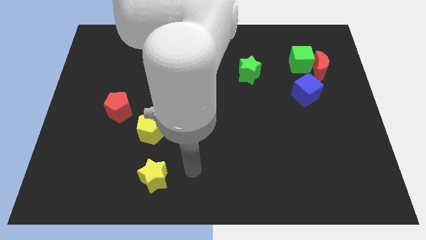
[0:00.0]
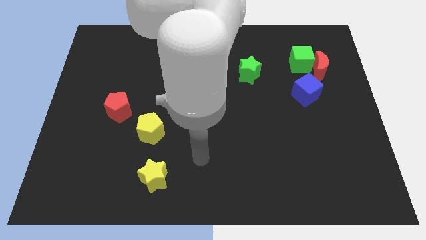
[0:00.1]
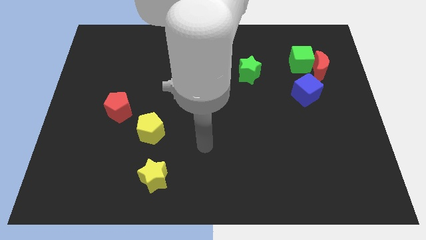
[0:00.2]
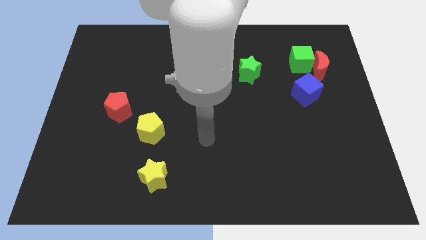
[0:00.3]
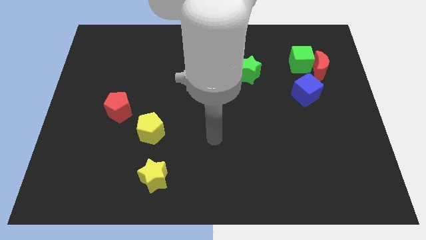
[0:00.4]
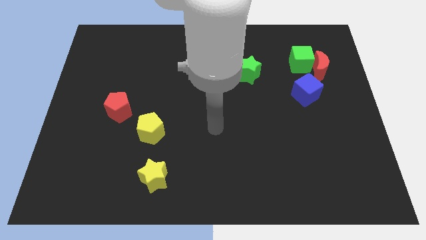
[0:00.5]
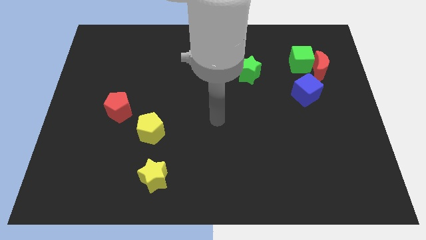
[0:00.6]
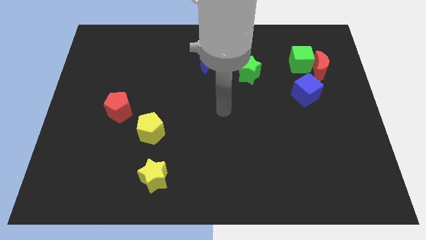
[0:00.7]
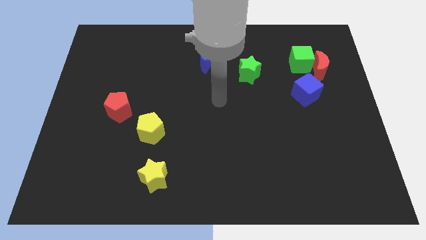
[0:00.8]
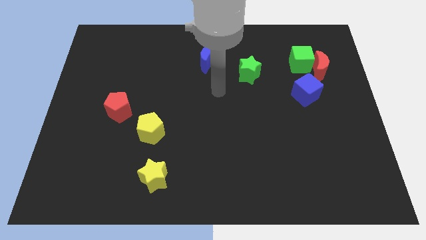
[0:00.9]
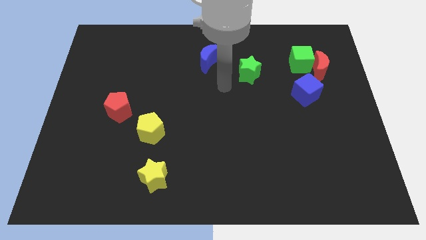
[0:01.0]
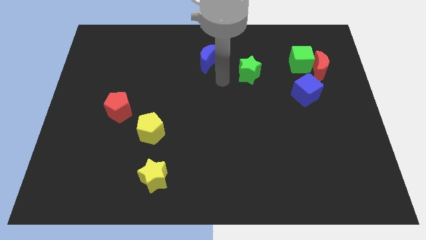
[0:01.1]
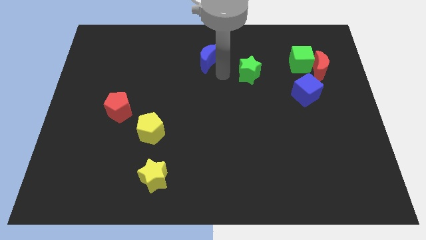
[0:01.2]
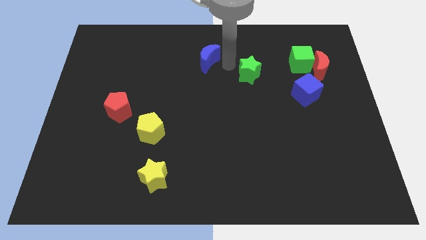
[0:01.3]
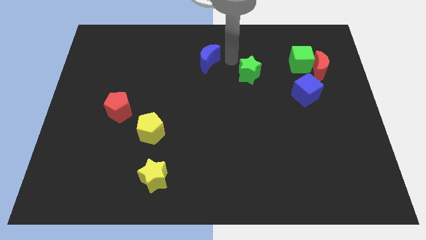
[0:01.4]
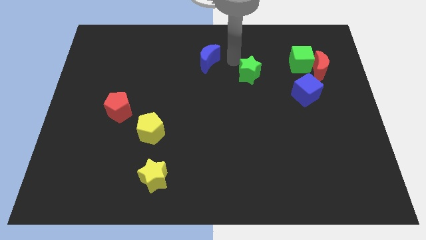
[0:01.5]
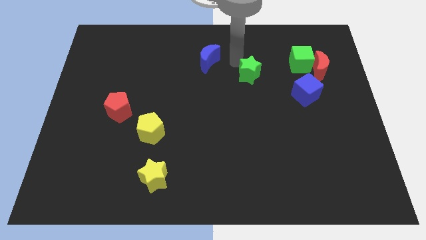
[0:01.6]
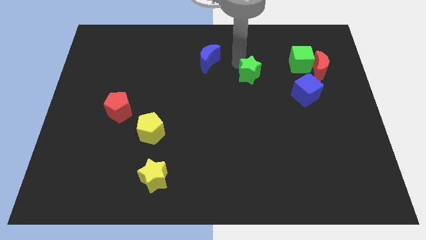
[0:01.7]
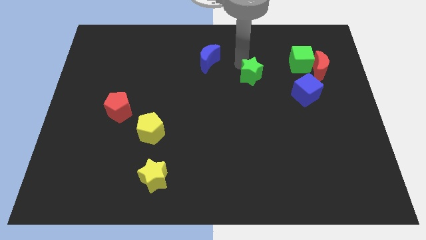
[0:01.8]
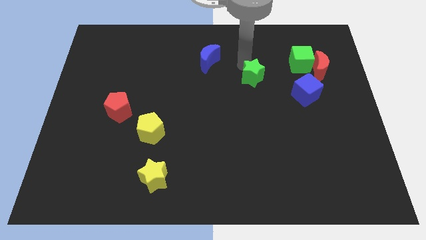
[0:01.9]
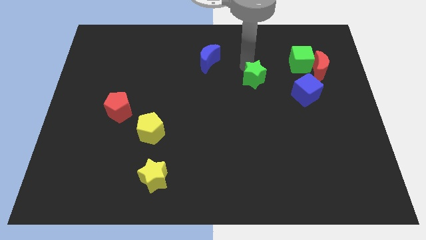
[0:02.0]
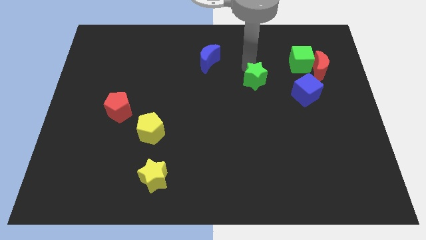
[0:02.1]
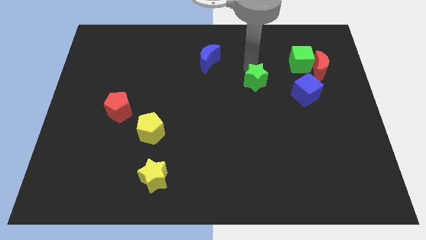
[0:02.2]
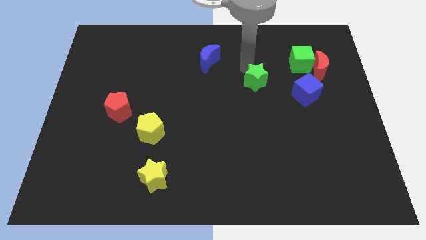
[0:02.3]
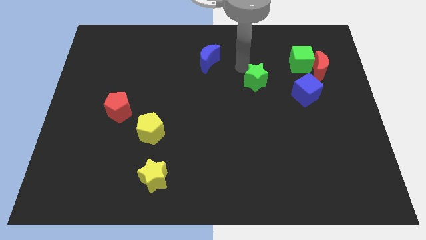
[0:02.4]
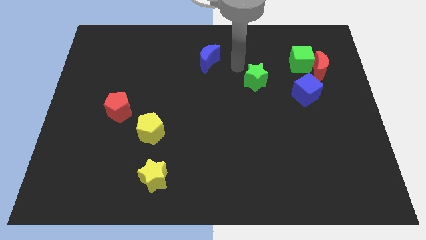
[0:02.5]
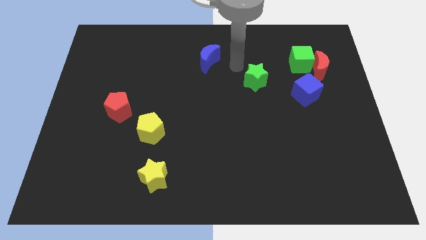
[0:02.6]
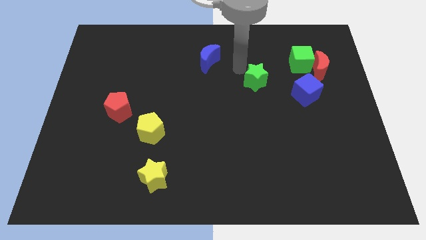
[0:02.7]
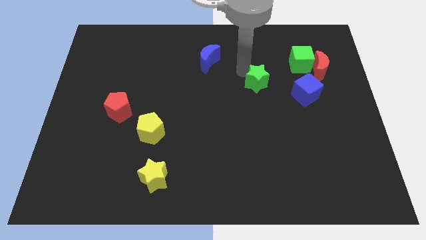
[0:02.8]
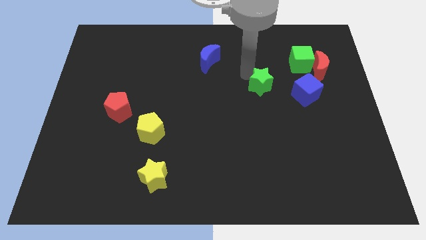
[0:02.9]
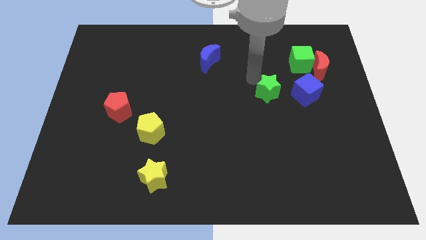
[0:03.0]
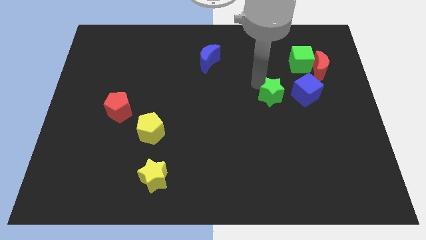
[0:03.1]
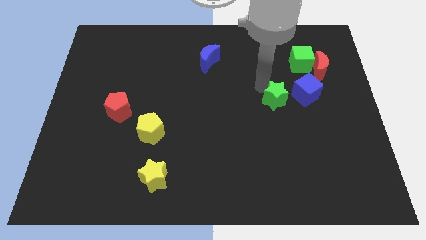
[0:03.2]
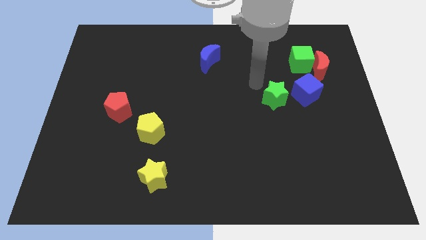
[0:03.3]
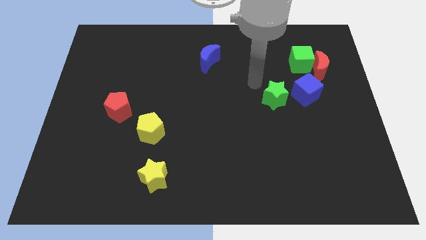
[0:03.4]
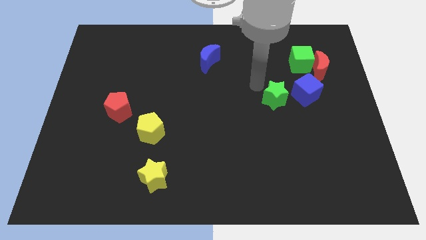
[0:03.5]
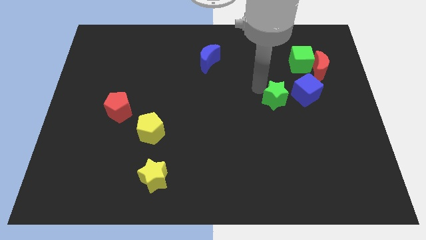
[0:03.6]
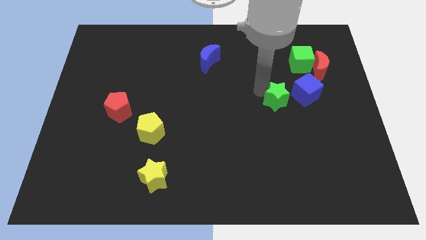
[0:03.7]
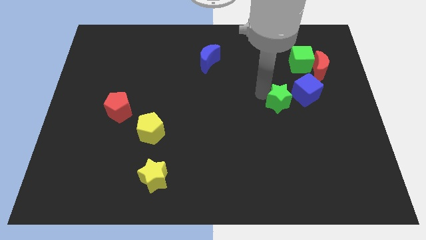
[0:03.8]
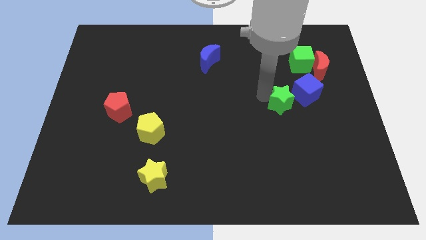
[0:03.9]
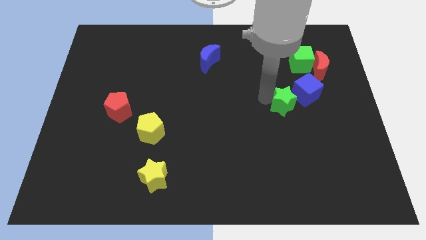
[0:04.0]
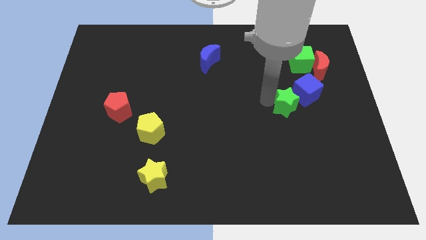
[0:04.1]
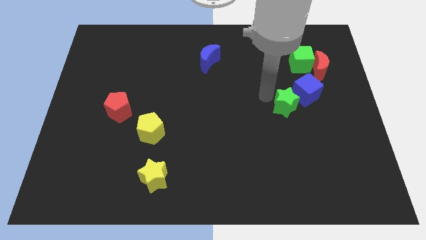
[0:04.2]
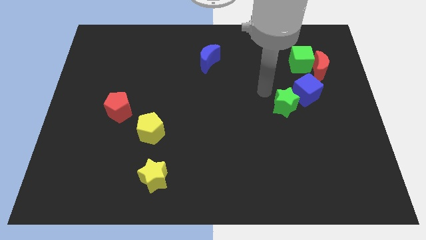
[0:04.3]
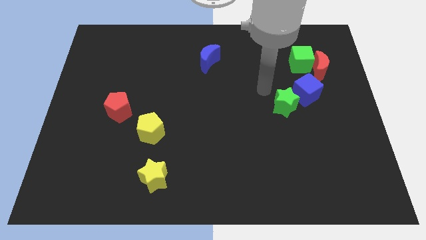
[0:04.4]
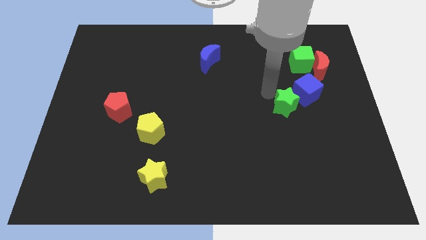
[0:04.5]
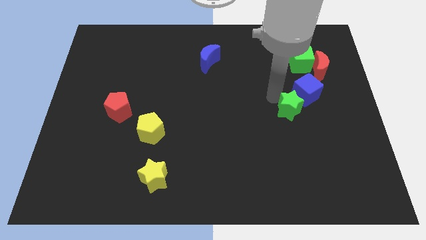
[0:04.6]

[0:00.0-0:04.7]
slide the green star below the blue cube

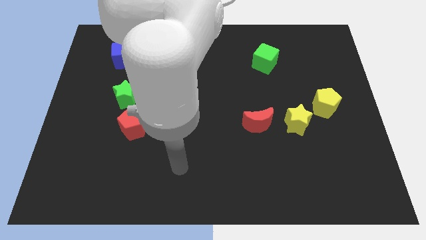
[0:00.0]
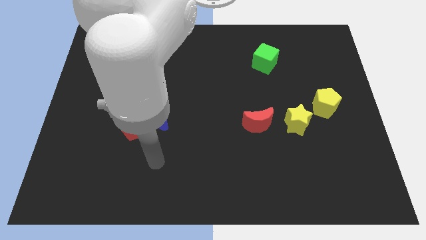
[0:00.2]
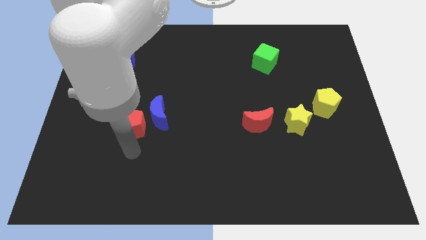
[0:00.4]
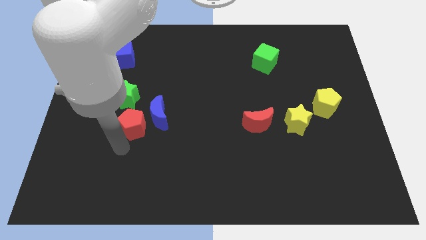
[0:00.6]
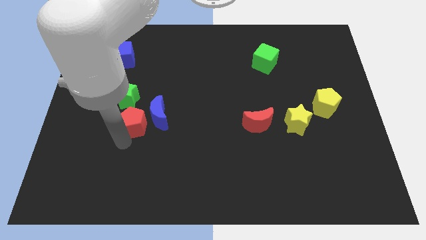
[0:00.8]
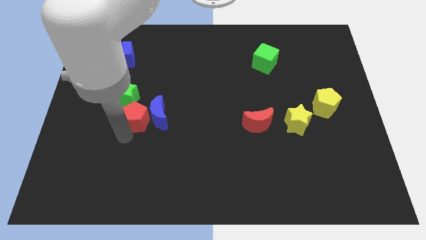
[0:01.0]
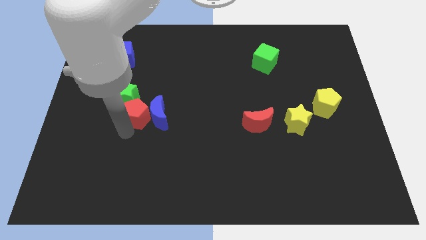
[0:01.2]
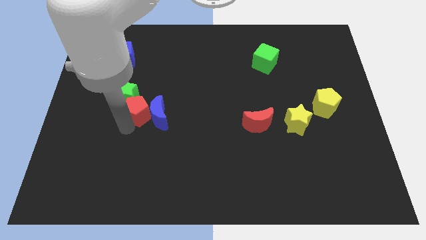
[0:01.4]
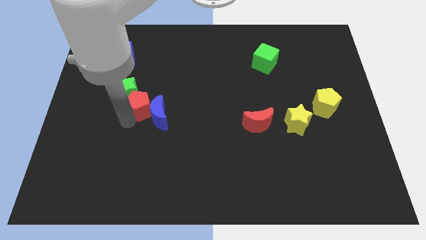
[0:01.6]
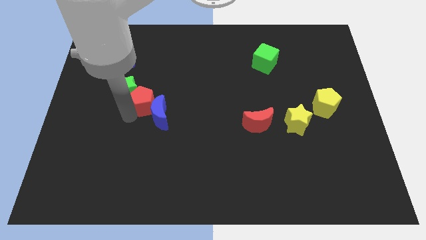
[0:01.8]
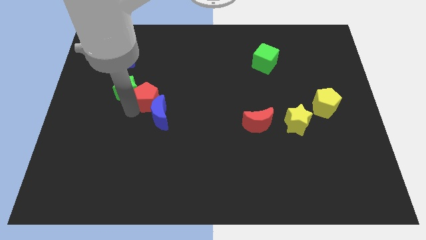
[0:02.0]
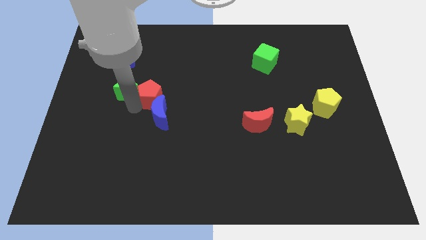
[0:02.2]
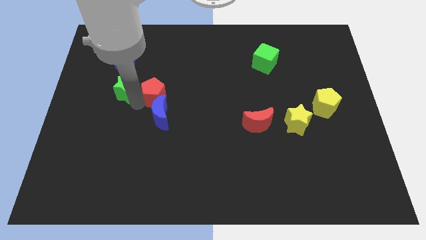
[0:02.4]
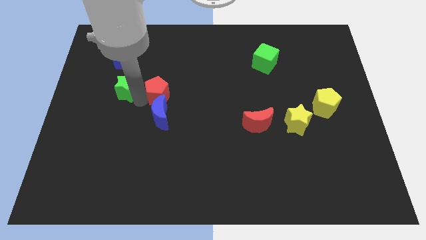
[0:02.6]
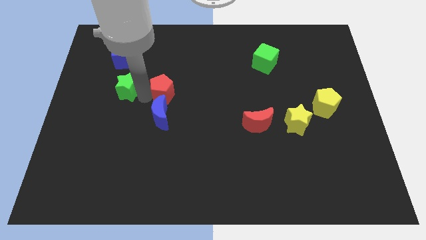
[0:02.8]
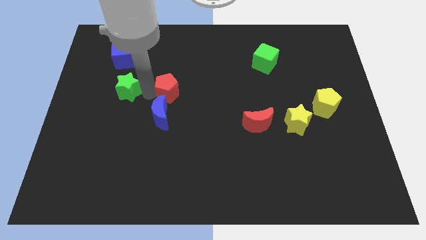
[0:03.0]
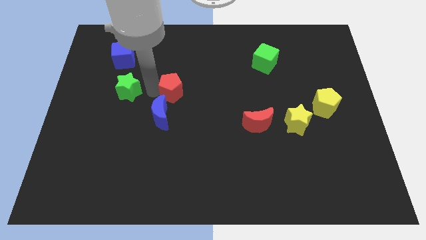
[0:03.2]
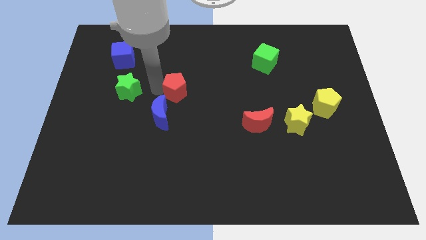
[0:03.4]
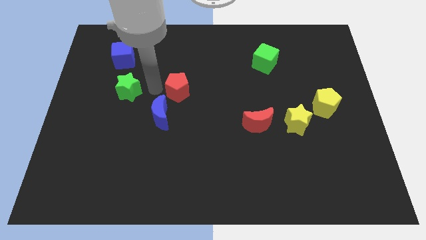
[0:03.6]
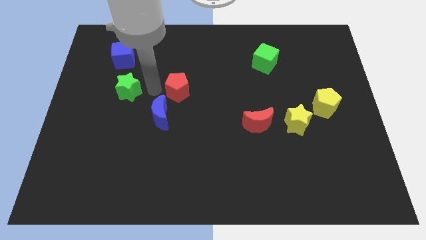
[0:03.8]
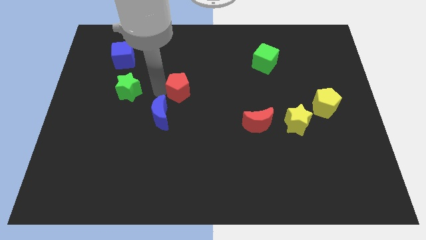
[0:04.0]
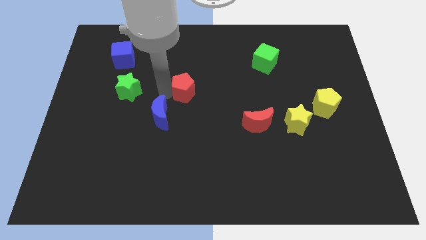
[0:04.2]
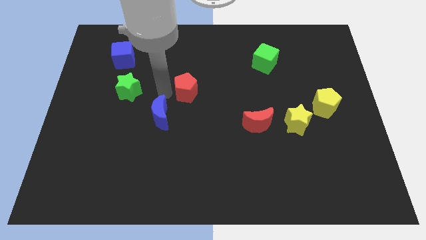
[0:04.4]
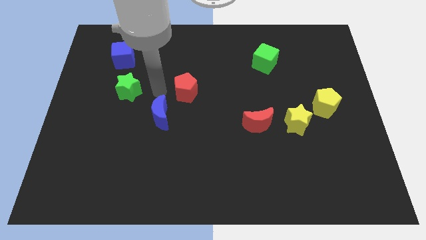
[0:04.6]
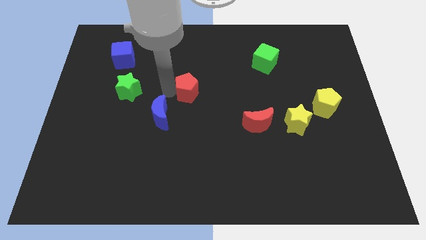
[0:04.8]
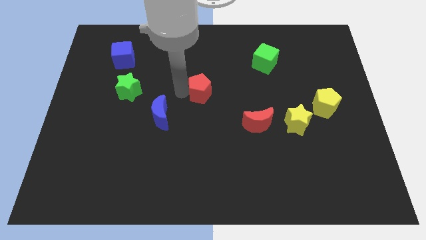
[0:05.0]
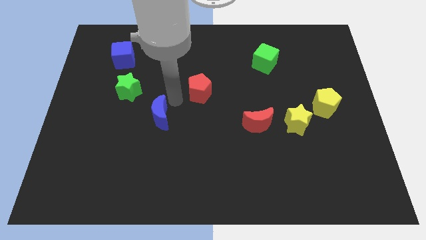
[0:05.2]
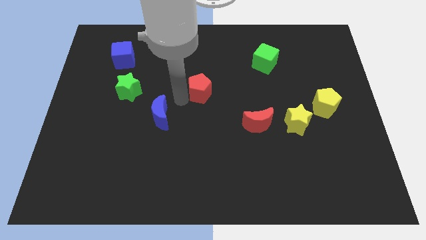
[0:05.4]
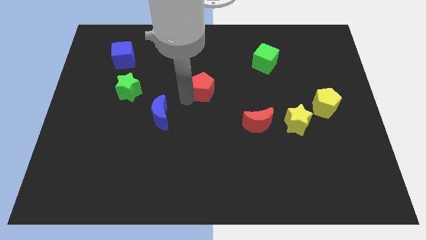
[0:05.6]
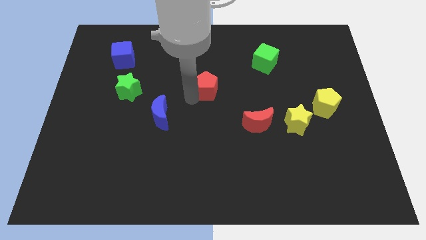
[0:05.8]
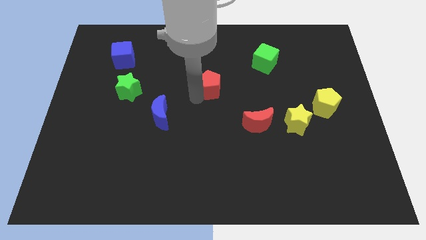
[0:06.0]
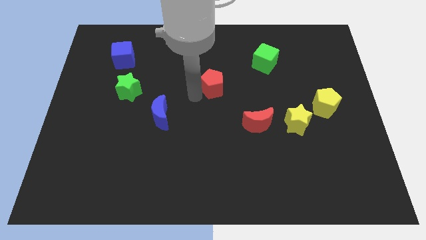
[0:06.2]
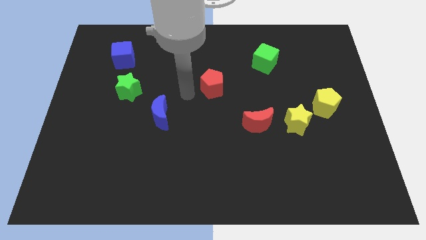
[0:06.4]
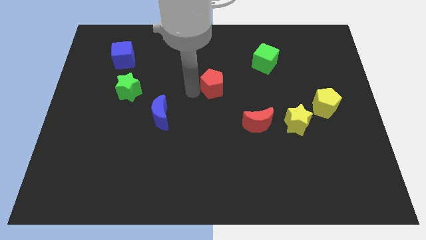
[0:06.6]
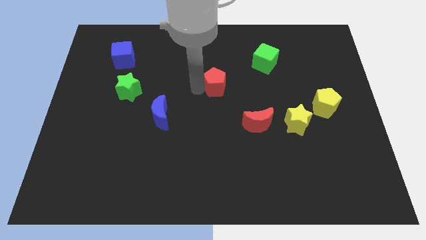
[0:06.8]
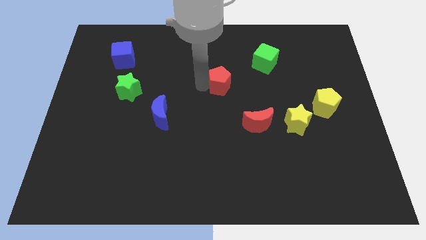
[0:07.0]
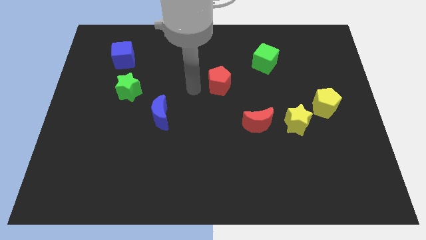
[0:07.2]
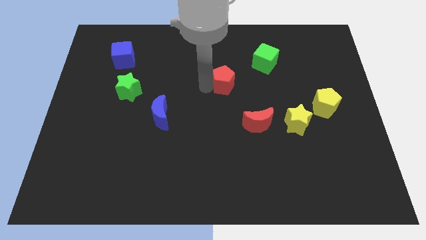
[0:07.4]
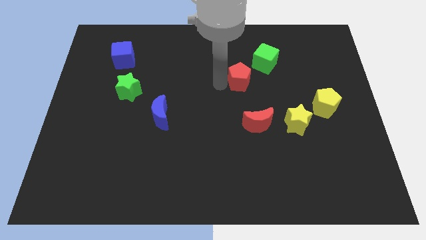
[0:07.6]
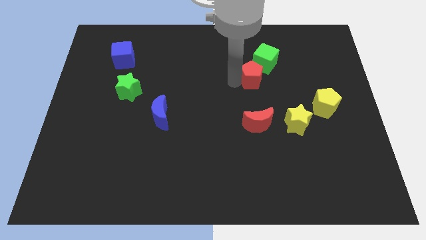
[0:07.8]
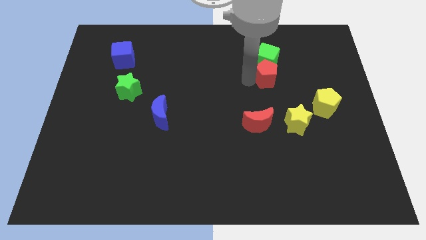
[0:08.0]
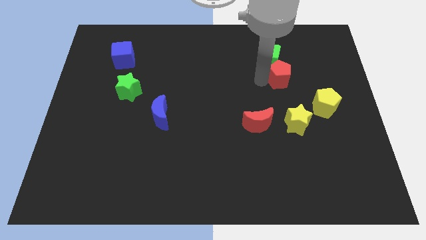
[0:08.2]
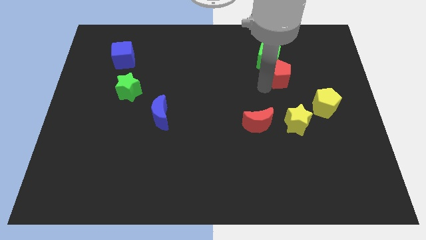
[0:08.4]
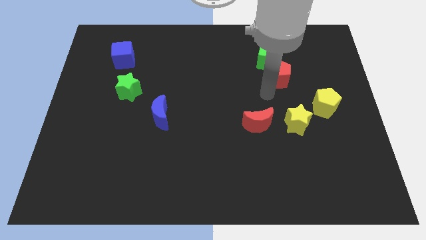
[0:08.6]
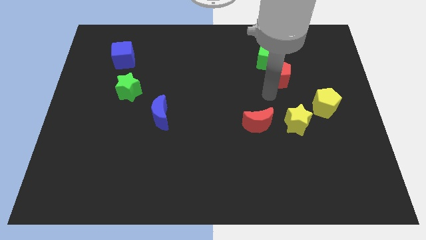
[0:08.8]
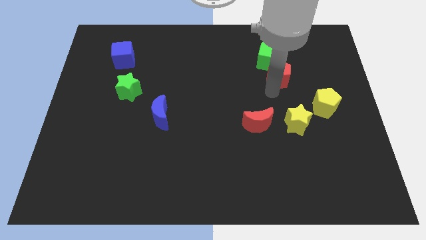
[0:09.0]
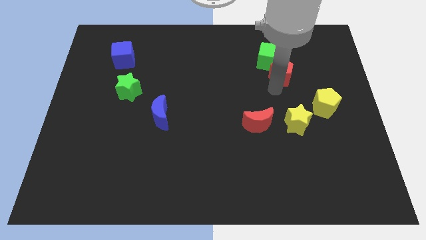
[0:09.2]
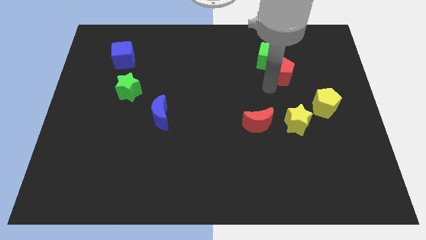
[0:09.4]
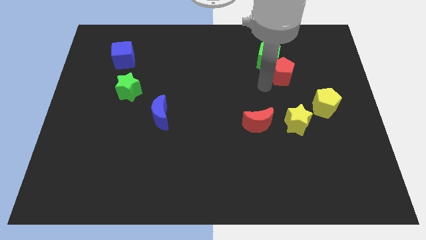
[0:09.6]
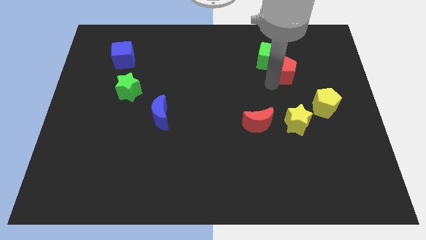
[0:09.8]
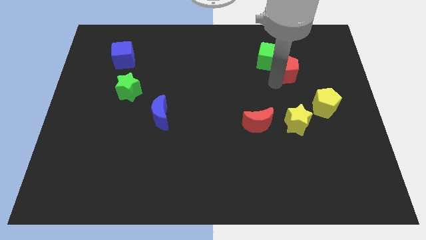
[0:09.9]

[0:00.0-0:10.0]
put the red pentagon to the right side of the green cube
